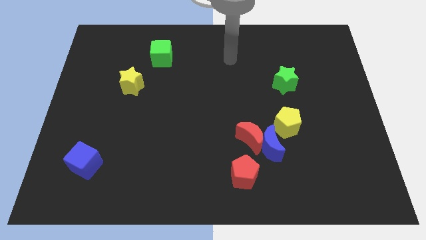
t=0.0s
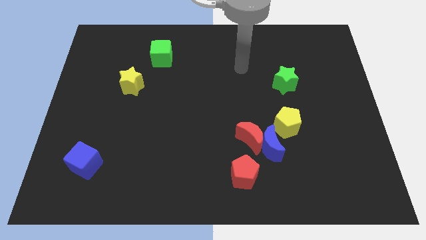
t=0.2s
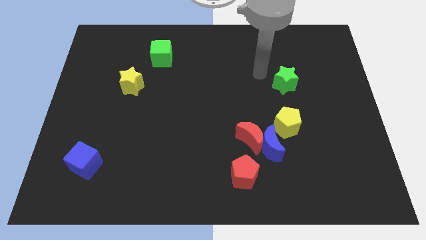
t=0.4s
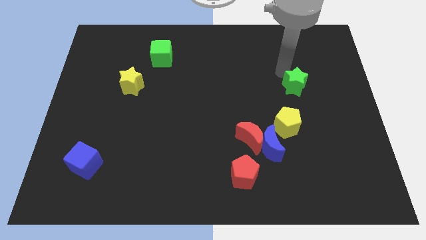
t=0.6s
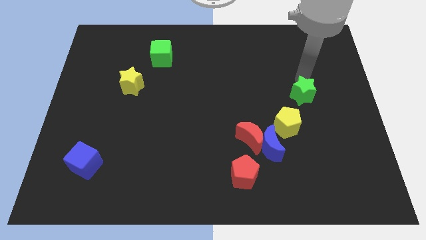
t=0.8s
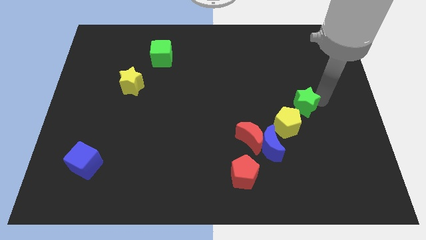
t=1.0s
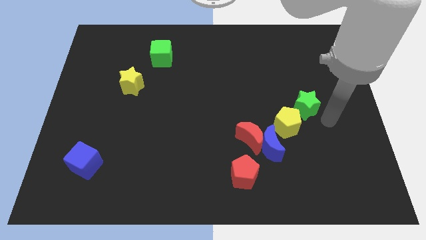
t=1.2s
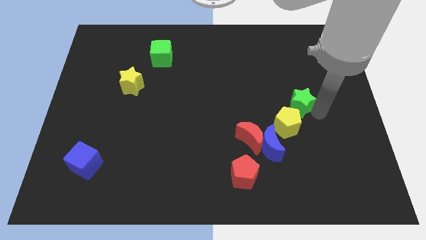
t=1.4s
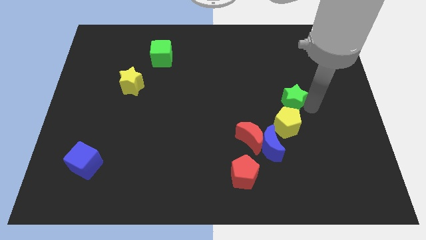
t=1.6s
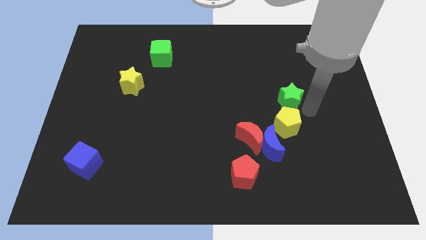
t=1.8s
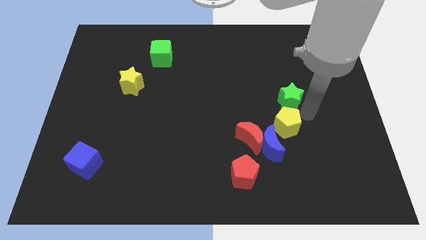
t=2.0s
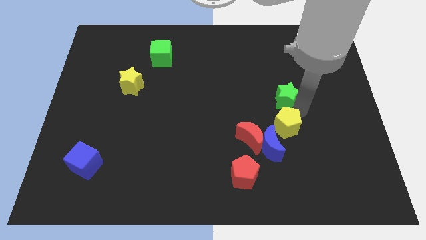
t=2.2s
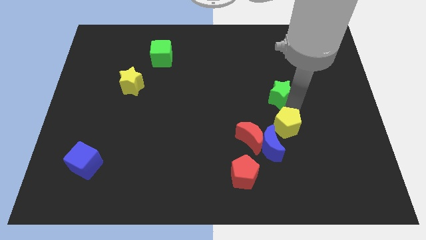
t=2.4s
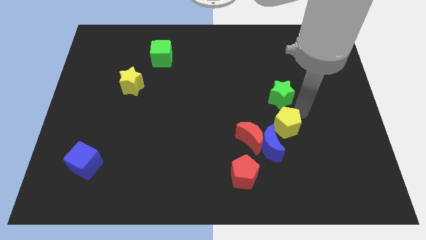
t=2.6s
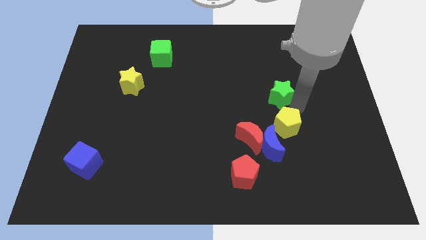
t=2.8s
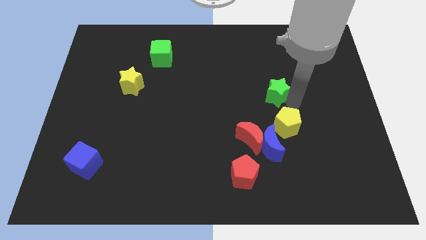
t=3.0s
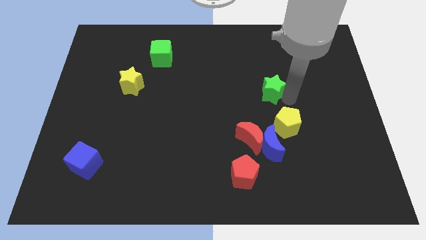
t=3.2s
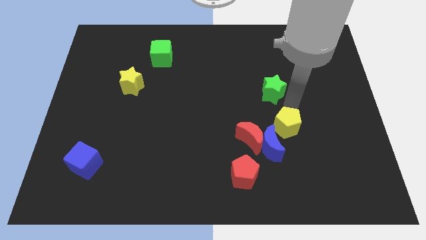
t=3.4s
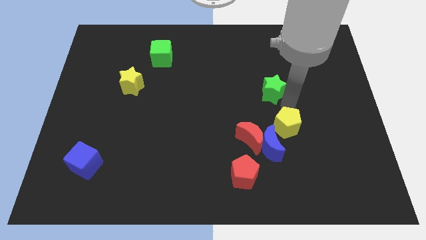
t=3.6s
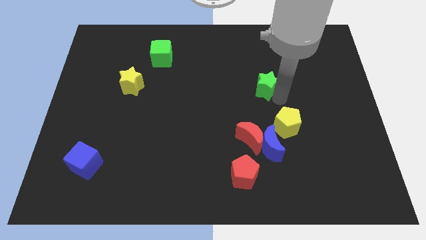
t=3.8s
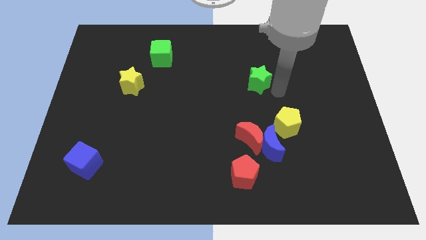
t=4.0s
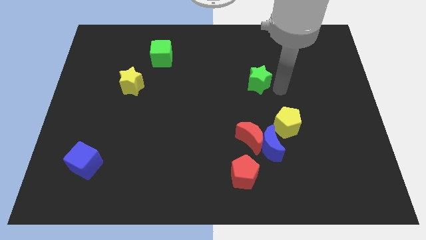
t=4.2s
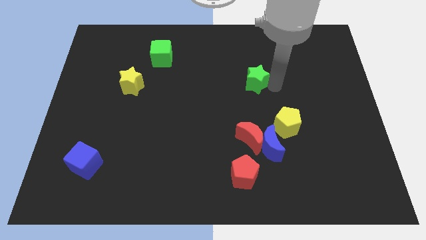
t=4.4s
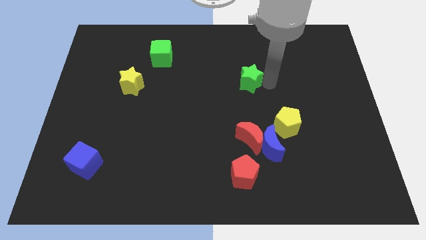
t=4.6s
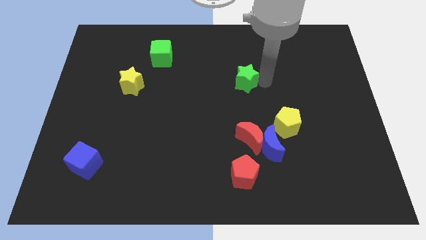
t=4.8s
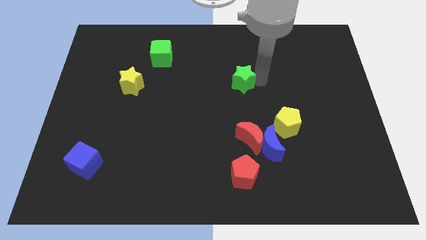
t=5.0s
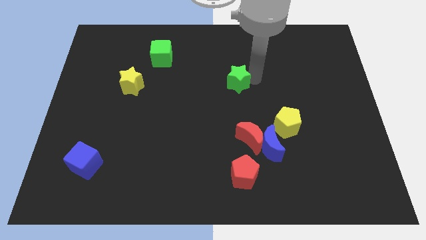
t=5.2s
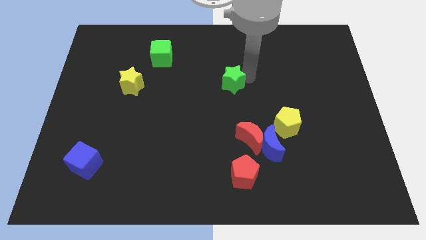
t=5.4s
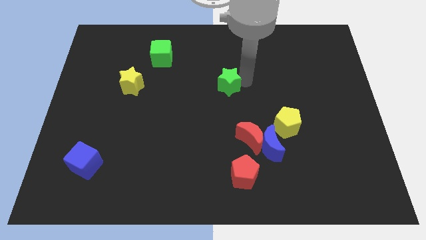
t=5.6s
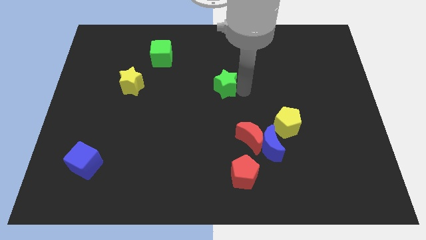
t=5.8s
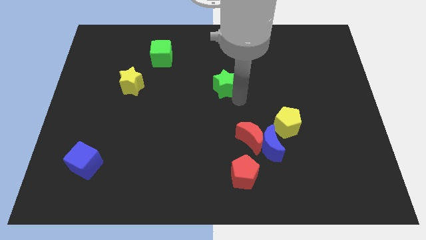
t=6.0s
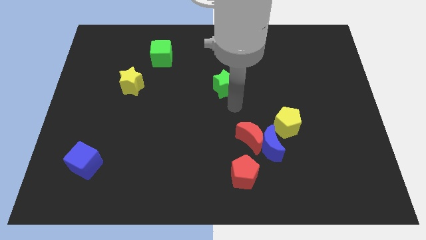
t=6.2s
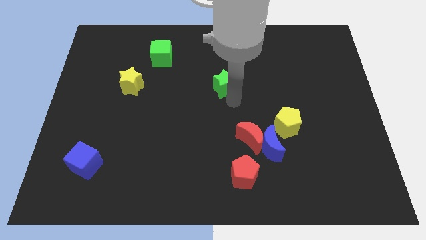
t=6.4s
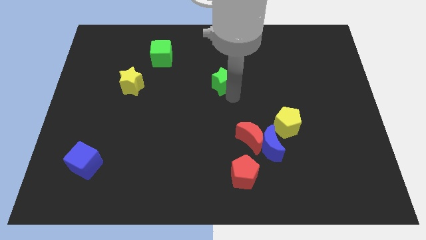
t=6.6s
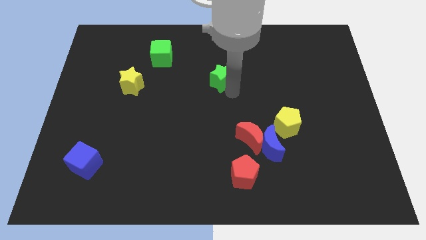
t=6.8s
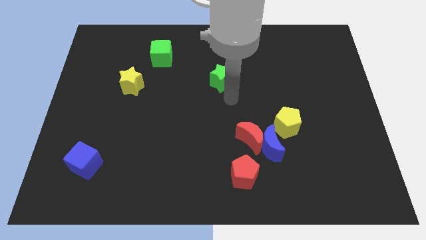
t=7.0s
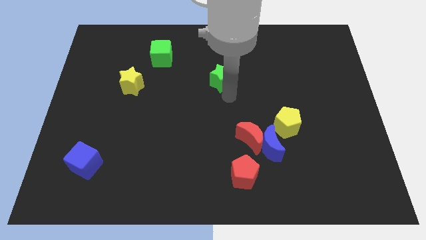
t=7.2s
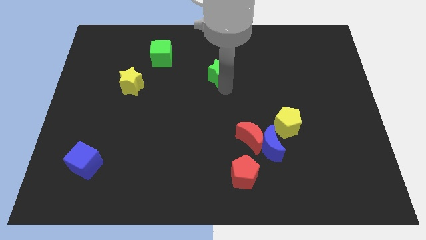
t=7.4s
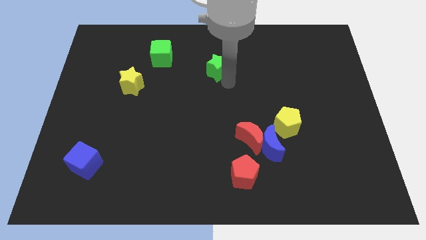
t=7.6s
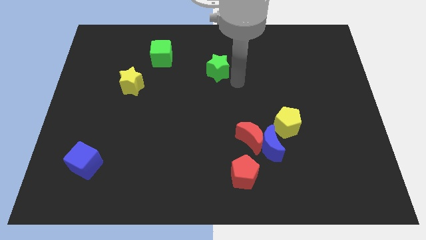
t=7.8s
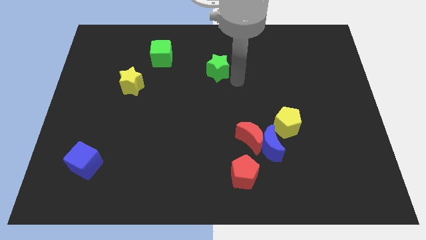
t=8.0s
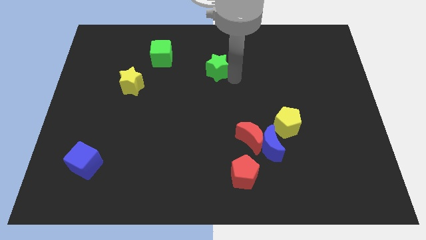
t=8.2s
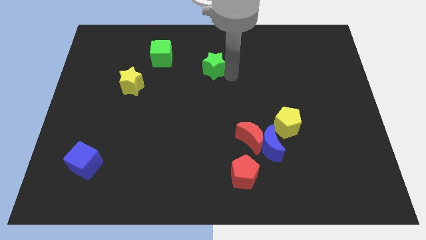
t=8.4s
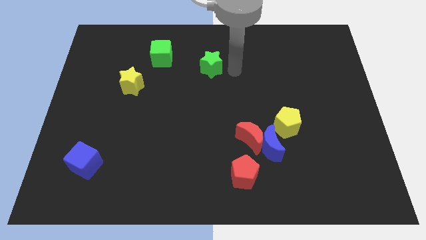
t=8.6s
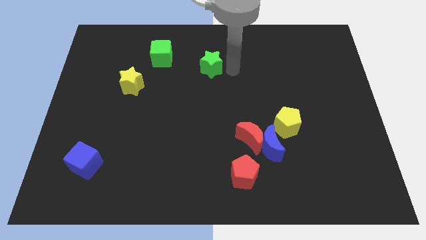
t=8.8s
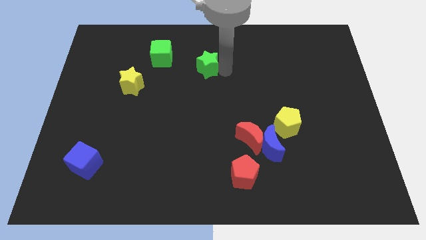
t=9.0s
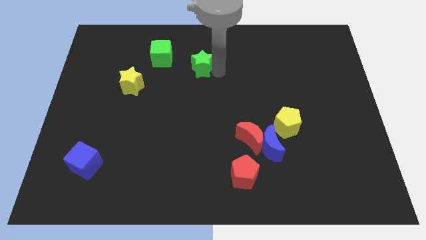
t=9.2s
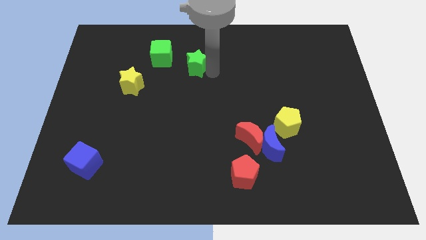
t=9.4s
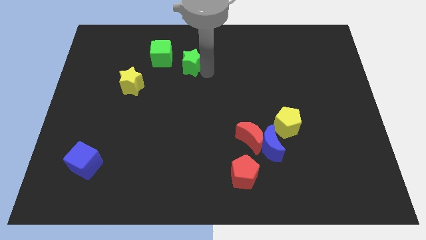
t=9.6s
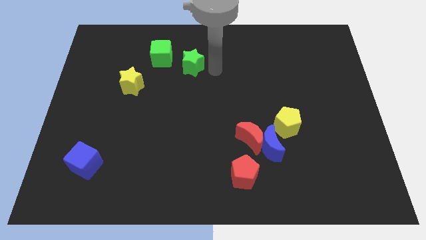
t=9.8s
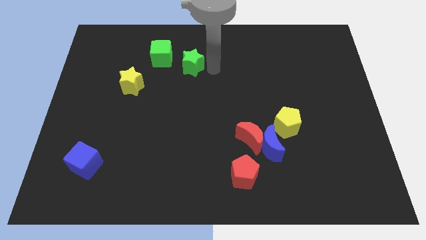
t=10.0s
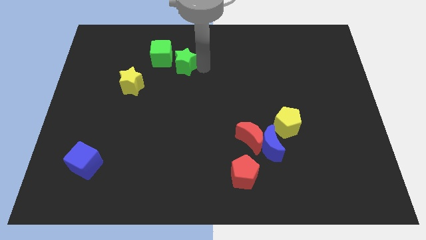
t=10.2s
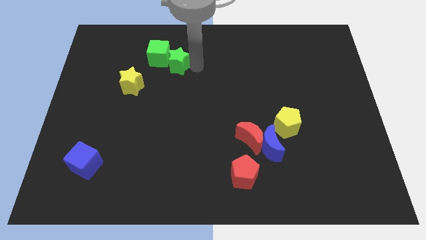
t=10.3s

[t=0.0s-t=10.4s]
move the green star towards the green cube

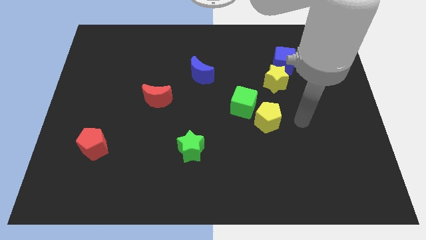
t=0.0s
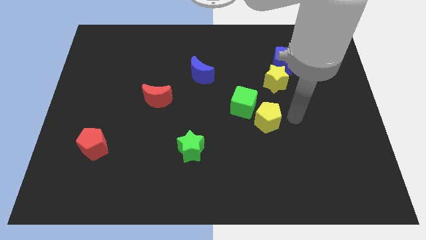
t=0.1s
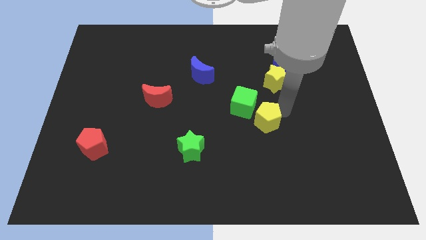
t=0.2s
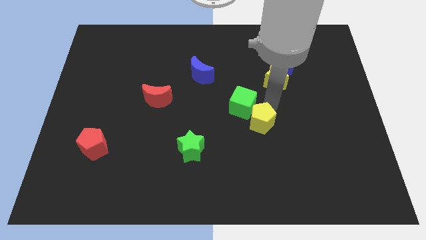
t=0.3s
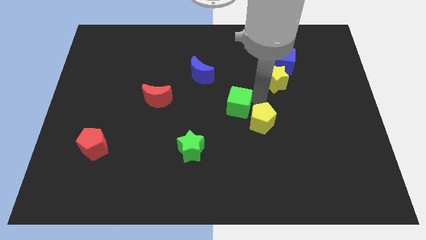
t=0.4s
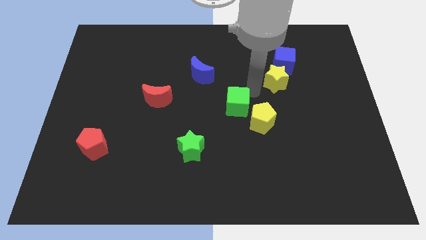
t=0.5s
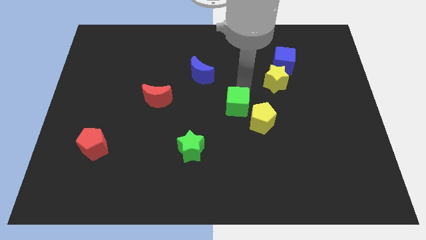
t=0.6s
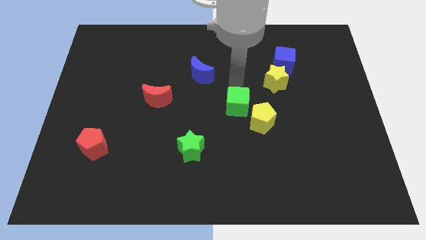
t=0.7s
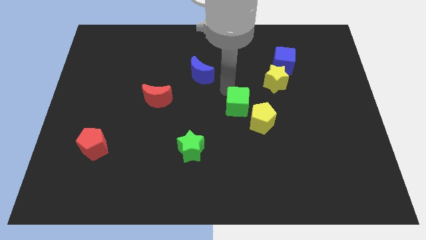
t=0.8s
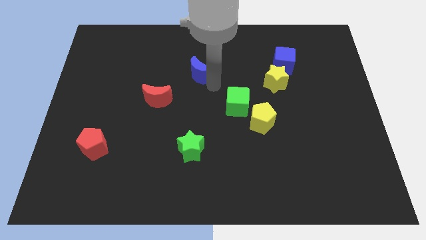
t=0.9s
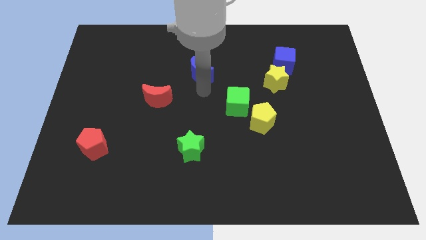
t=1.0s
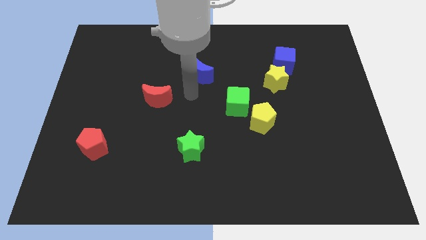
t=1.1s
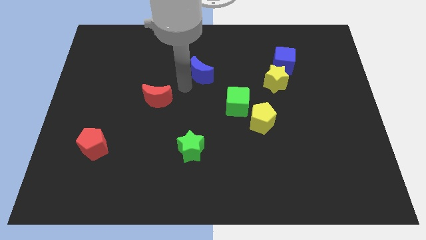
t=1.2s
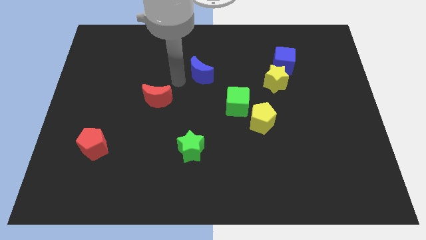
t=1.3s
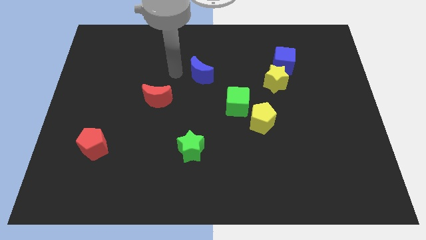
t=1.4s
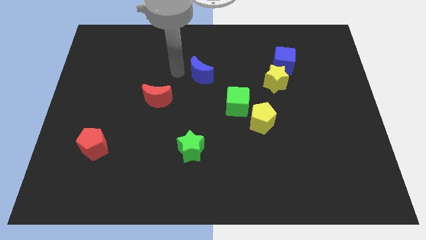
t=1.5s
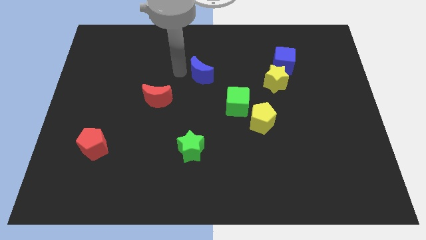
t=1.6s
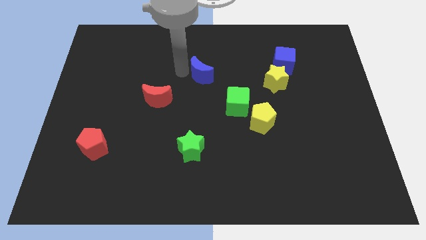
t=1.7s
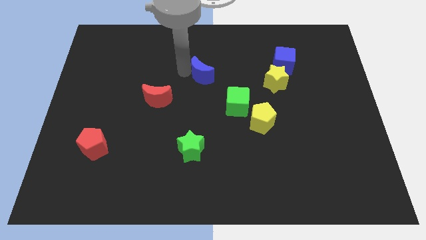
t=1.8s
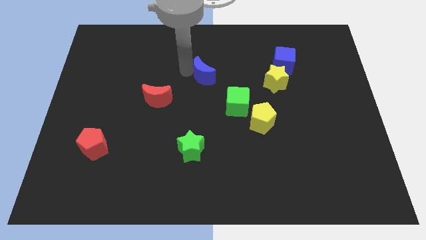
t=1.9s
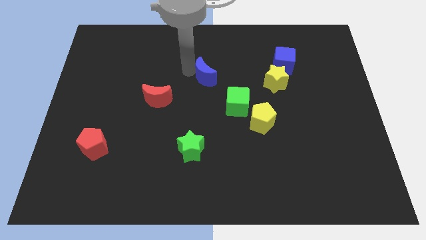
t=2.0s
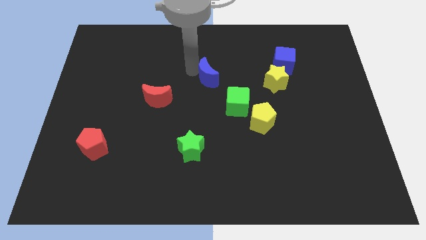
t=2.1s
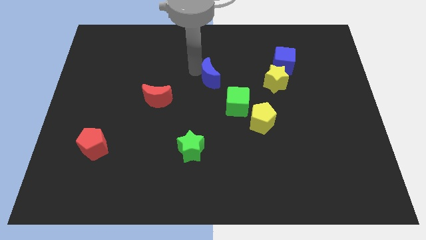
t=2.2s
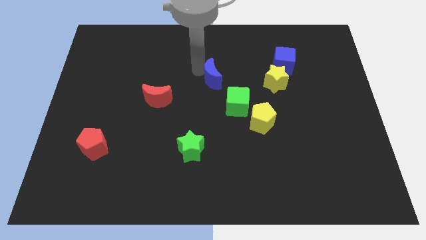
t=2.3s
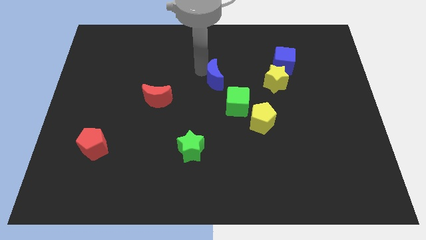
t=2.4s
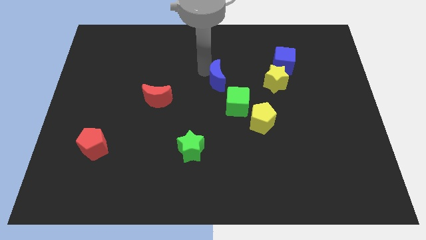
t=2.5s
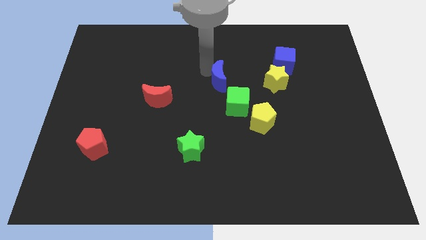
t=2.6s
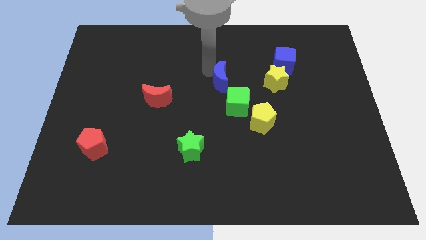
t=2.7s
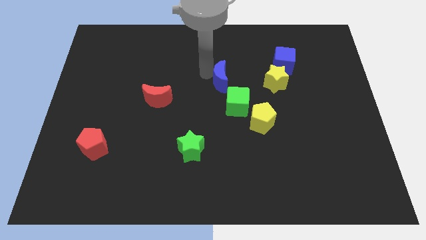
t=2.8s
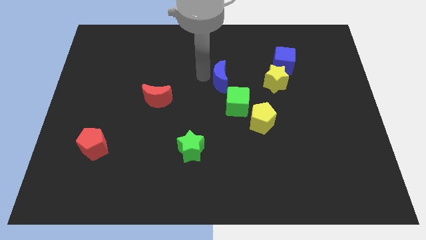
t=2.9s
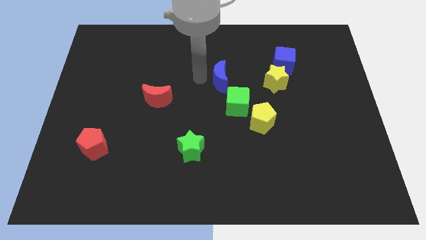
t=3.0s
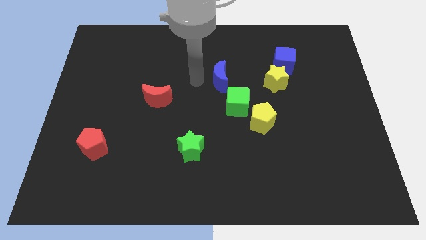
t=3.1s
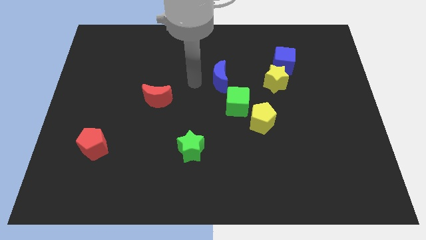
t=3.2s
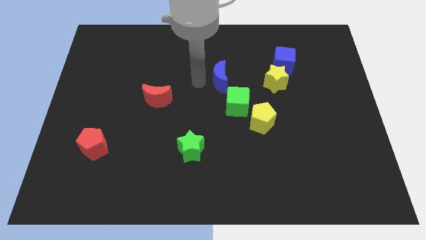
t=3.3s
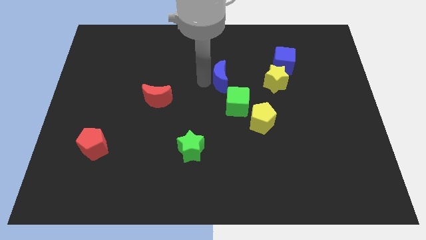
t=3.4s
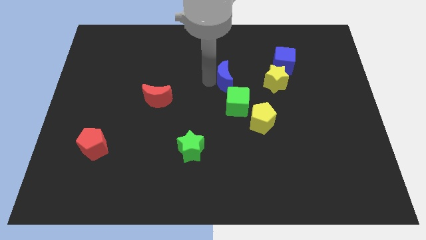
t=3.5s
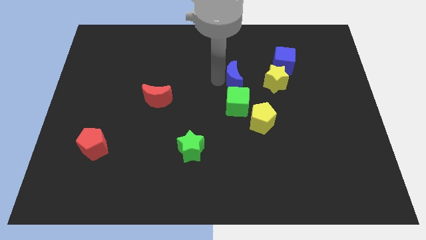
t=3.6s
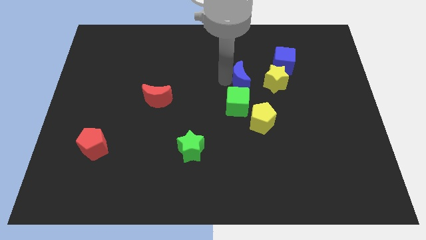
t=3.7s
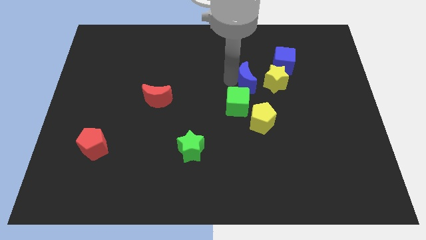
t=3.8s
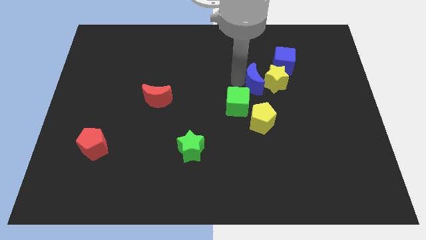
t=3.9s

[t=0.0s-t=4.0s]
push the blue moon to the yellow star
